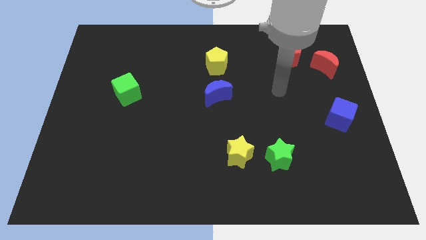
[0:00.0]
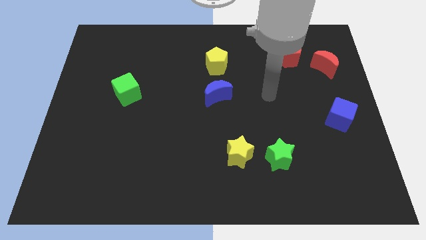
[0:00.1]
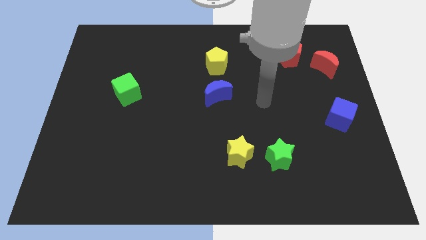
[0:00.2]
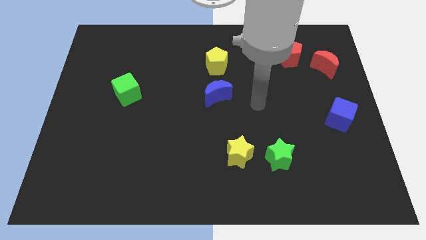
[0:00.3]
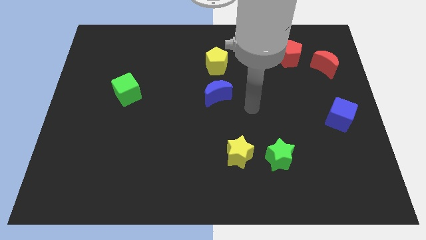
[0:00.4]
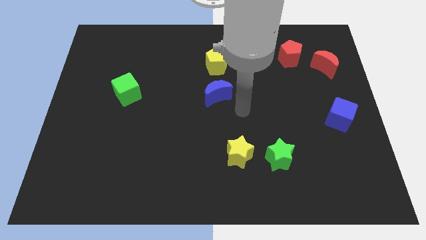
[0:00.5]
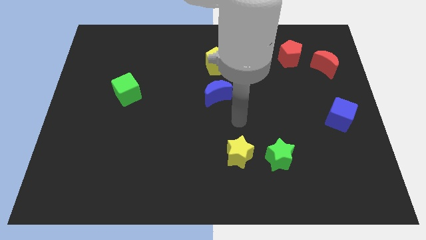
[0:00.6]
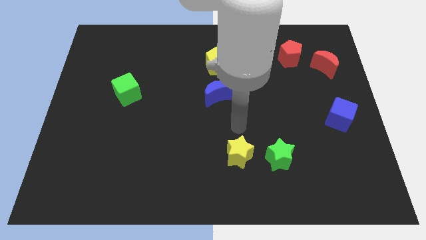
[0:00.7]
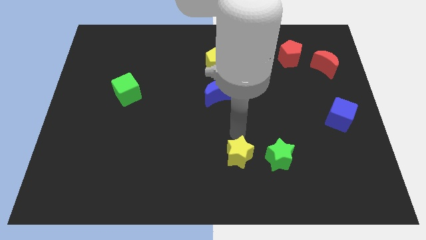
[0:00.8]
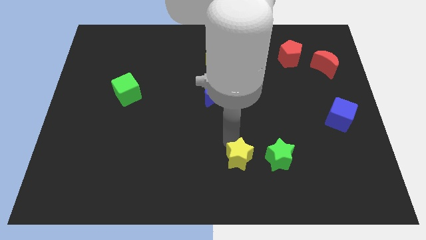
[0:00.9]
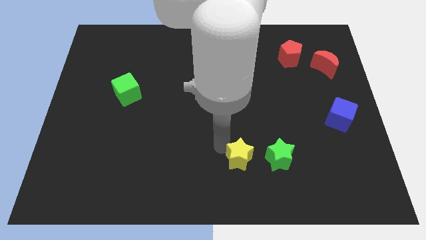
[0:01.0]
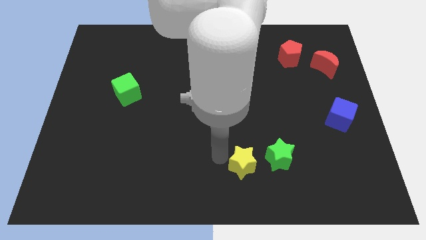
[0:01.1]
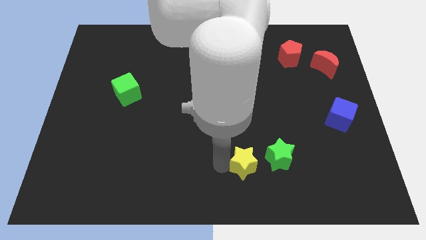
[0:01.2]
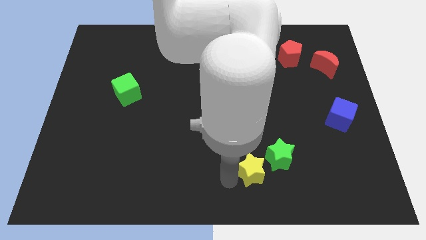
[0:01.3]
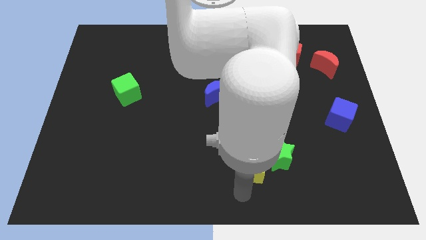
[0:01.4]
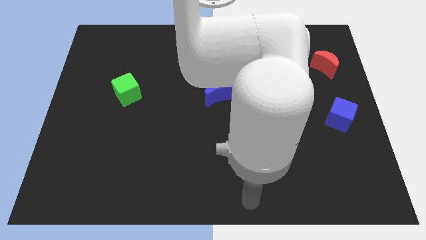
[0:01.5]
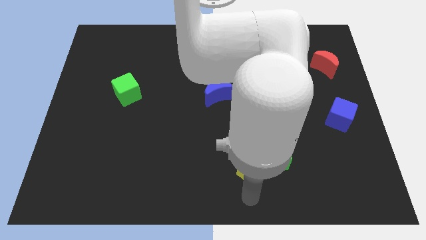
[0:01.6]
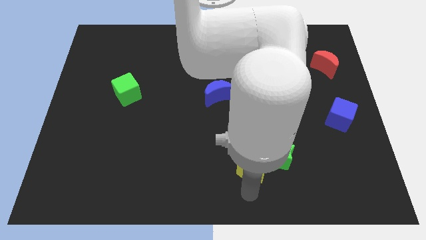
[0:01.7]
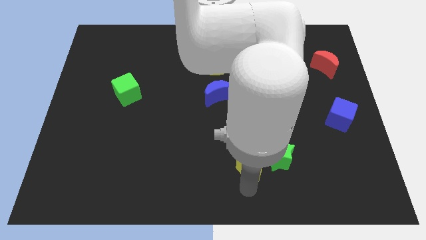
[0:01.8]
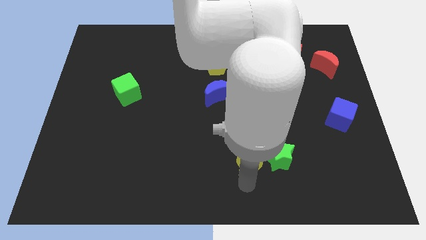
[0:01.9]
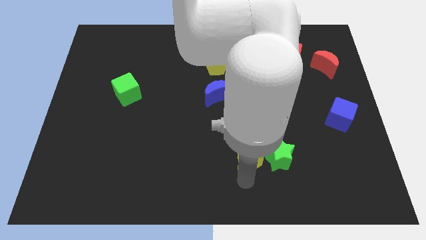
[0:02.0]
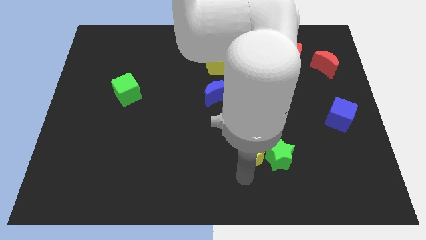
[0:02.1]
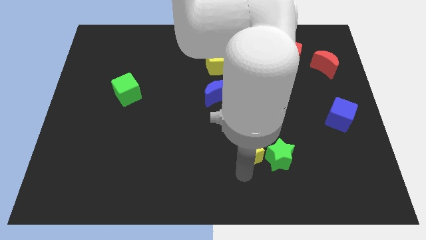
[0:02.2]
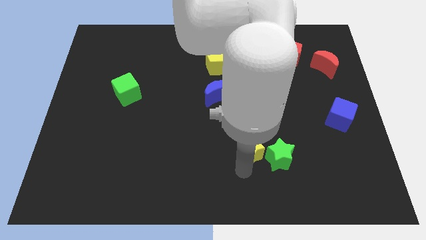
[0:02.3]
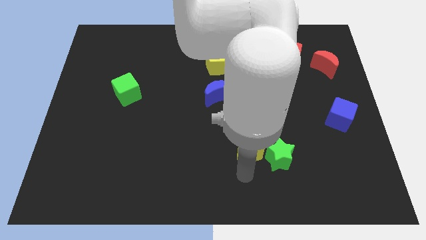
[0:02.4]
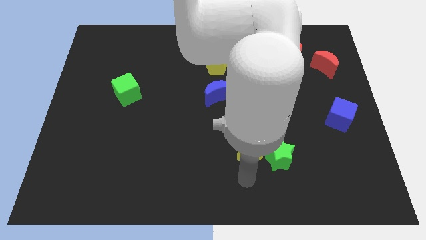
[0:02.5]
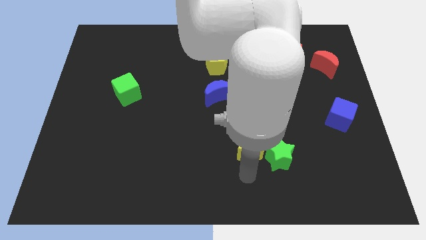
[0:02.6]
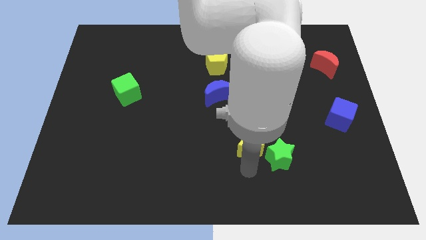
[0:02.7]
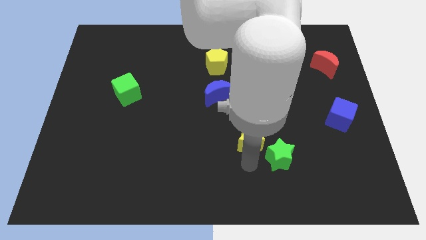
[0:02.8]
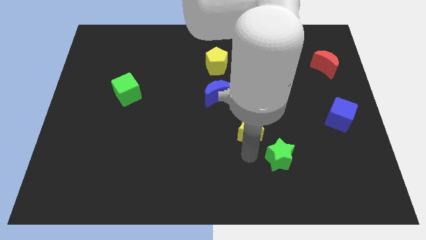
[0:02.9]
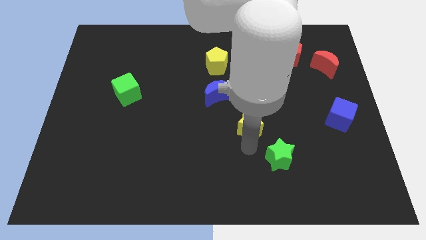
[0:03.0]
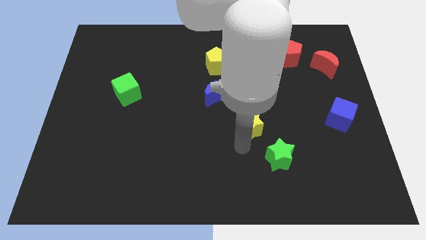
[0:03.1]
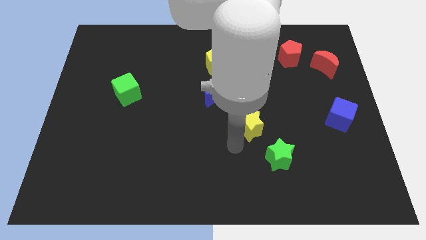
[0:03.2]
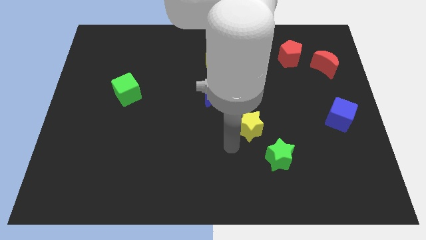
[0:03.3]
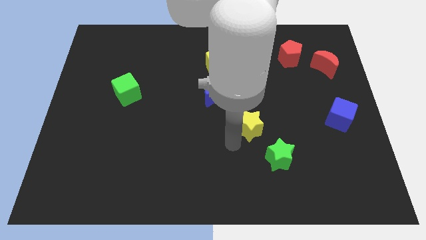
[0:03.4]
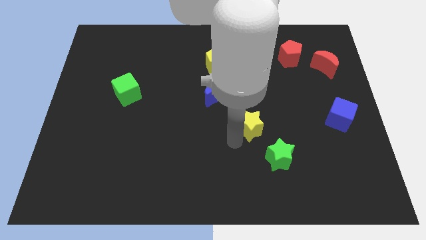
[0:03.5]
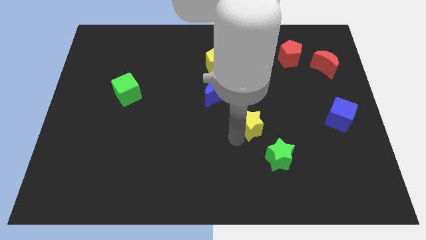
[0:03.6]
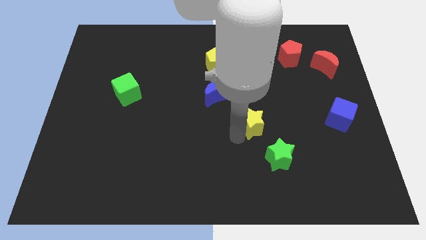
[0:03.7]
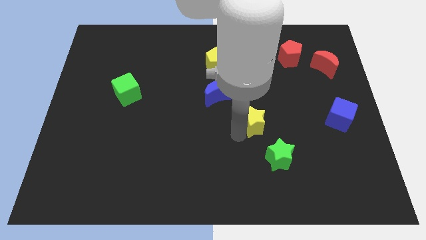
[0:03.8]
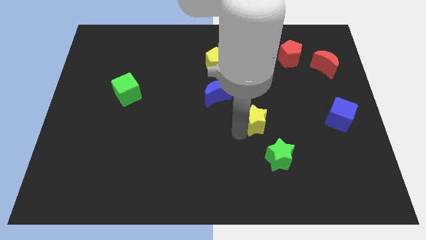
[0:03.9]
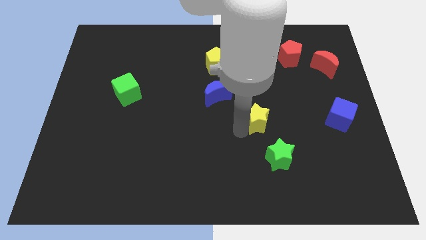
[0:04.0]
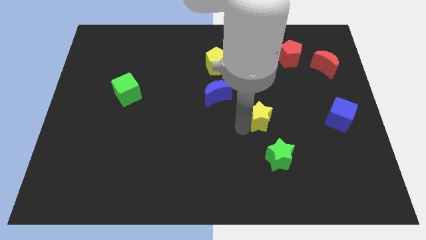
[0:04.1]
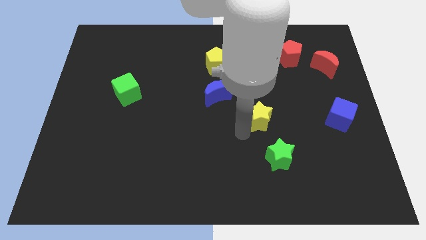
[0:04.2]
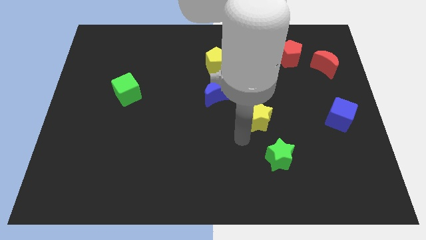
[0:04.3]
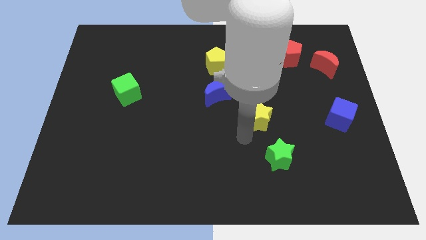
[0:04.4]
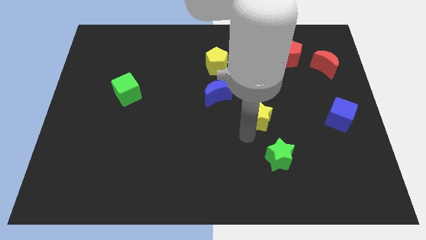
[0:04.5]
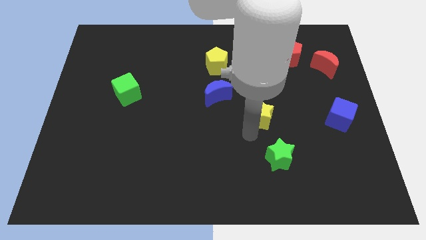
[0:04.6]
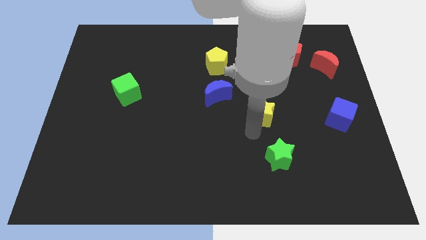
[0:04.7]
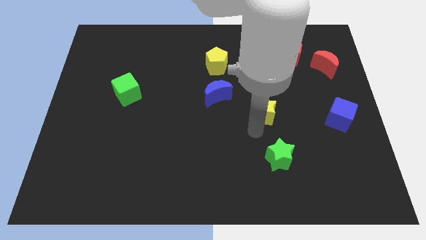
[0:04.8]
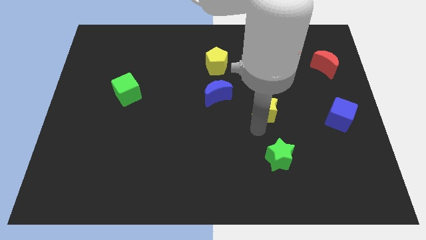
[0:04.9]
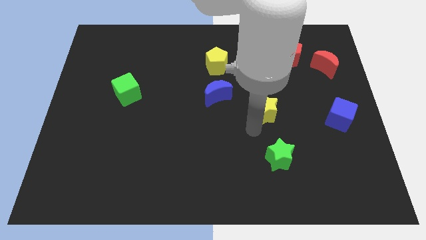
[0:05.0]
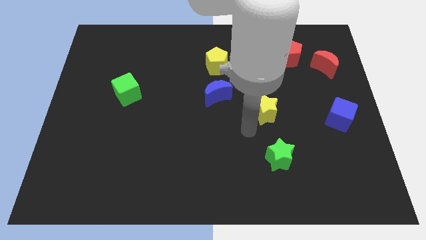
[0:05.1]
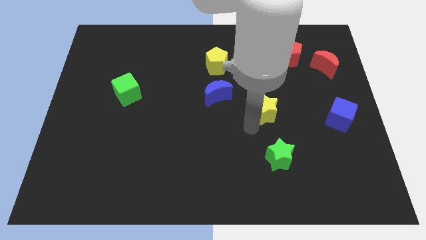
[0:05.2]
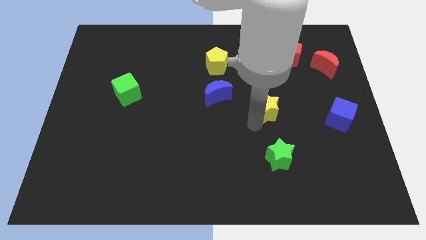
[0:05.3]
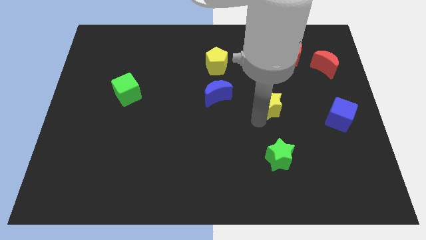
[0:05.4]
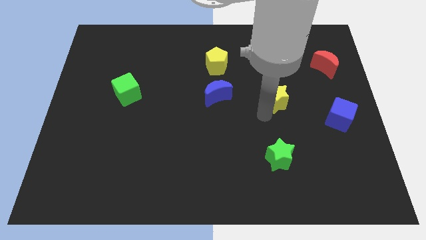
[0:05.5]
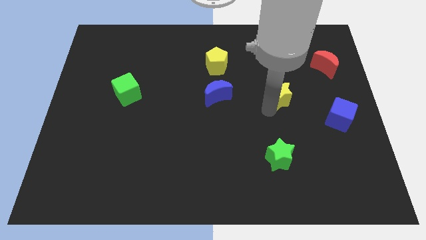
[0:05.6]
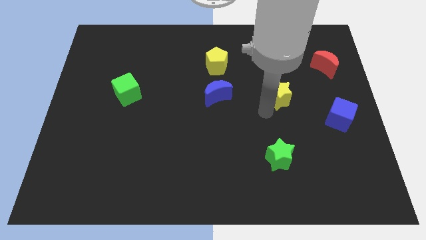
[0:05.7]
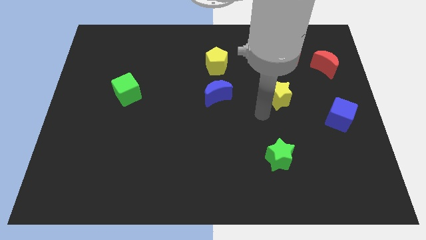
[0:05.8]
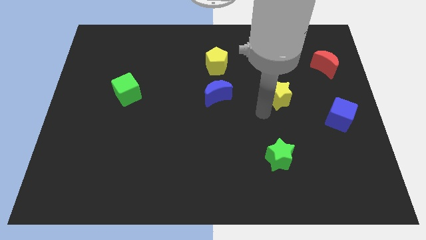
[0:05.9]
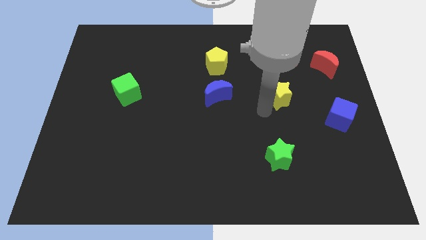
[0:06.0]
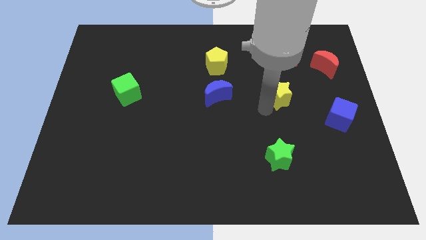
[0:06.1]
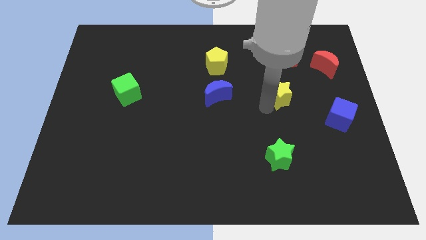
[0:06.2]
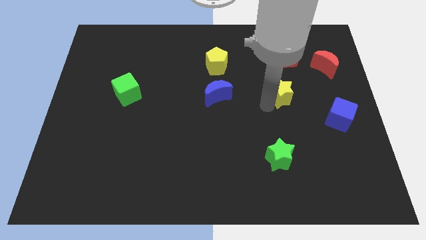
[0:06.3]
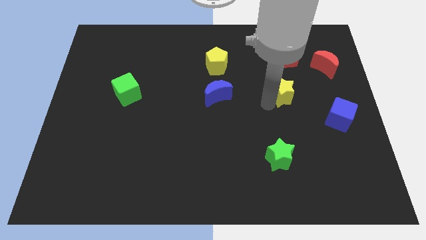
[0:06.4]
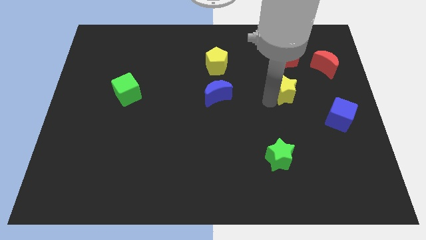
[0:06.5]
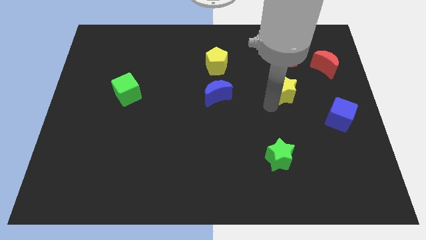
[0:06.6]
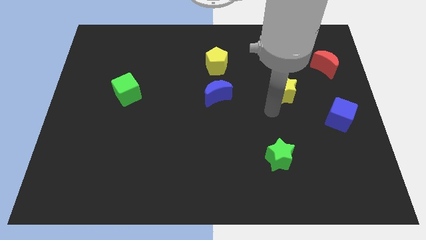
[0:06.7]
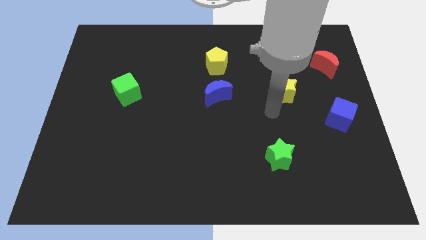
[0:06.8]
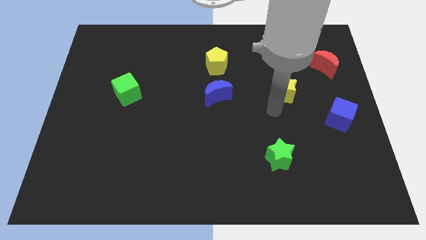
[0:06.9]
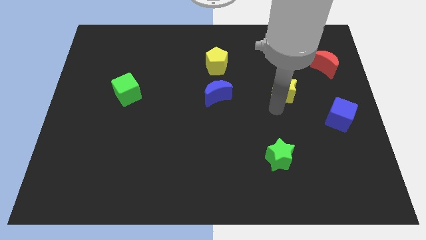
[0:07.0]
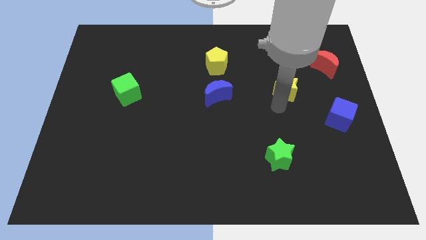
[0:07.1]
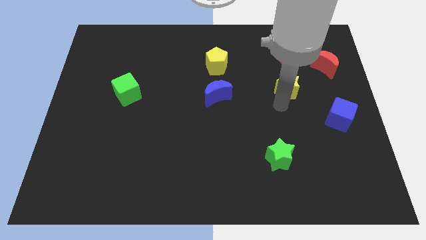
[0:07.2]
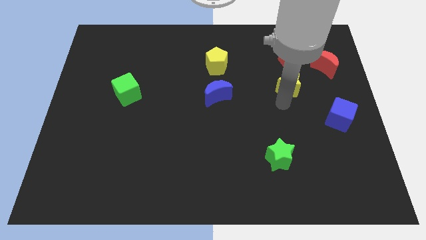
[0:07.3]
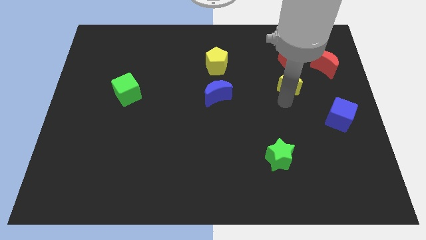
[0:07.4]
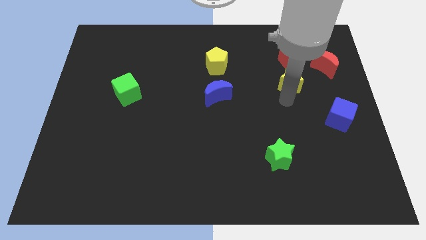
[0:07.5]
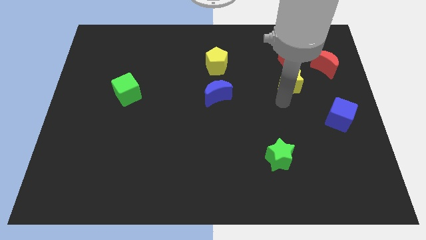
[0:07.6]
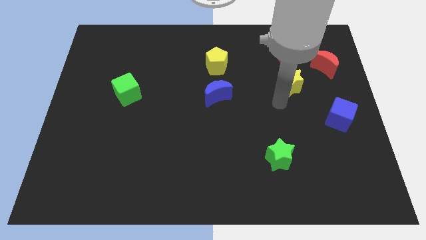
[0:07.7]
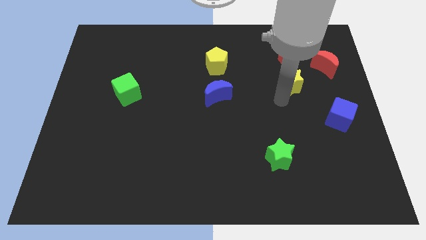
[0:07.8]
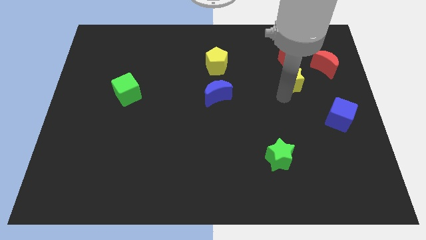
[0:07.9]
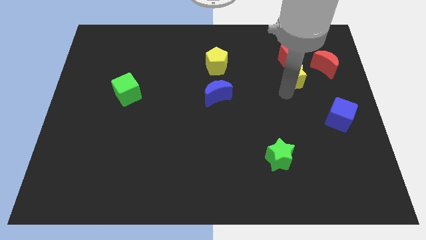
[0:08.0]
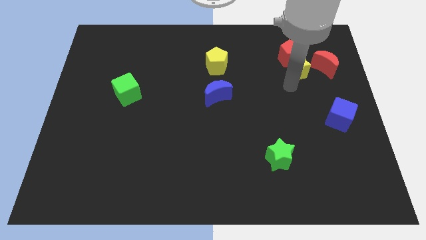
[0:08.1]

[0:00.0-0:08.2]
push the yellow star diagonally down and to the right of the red pentagon
